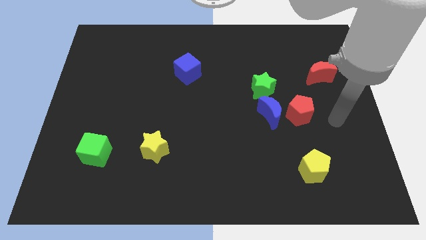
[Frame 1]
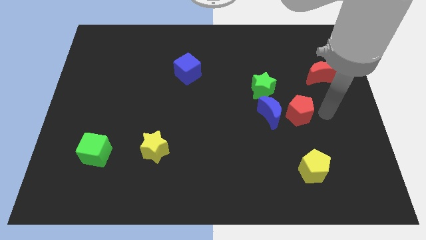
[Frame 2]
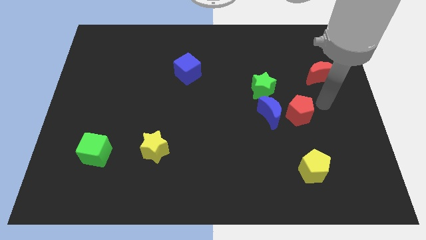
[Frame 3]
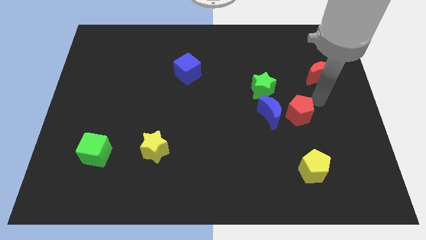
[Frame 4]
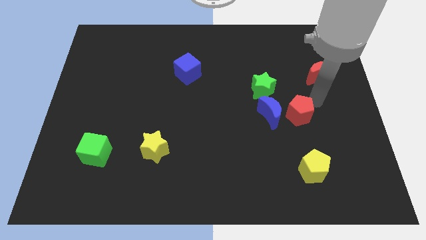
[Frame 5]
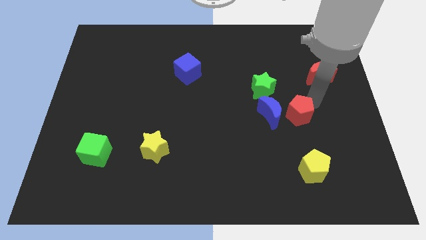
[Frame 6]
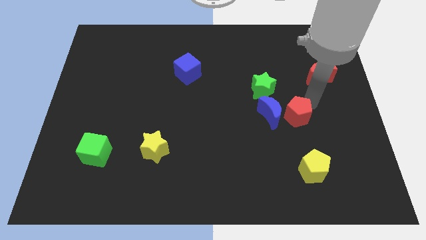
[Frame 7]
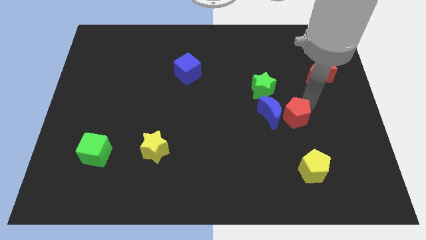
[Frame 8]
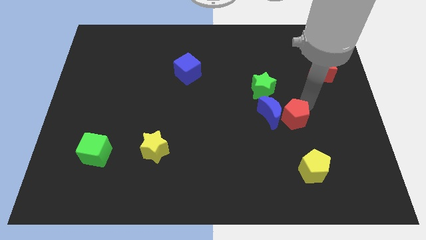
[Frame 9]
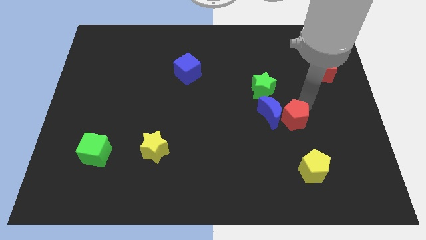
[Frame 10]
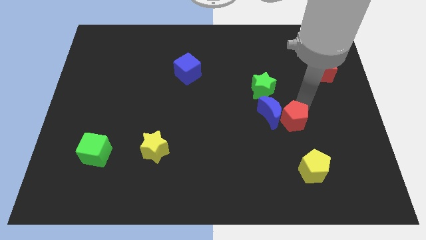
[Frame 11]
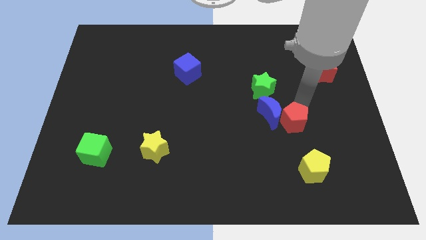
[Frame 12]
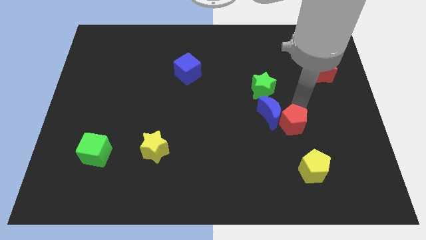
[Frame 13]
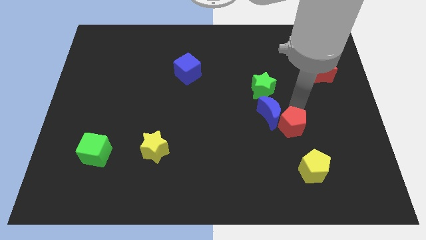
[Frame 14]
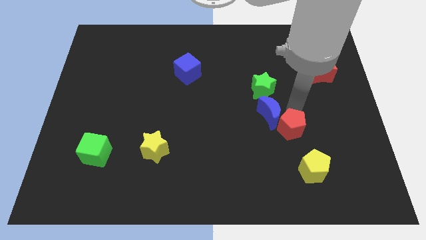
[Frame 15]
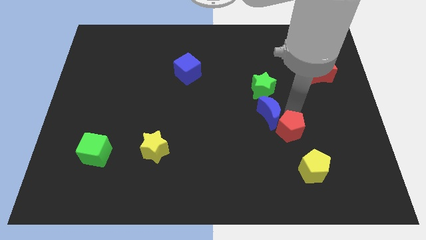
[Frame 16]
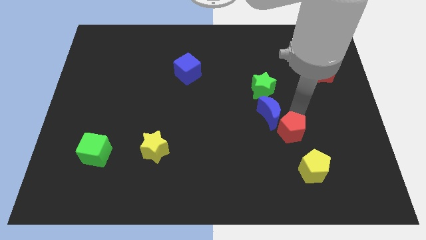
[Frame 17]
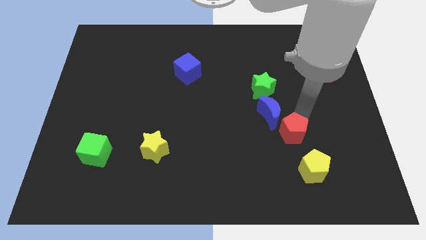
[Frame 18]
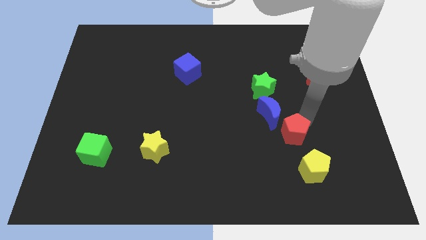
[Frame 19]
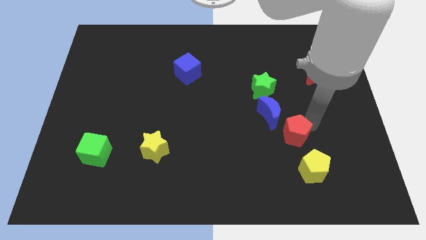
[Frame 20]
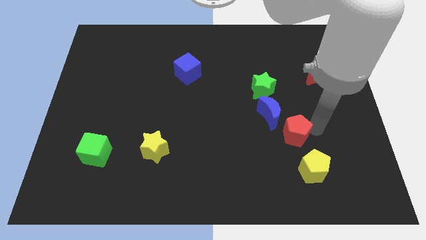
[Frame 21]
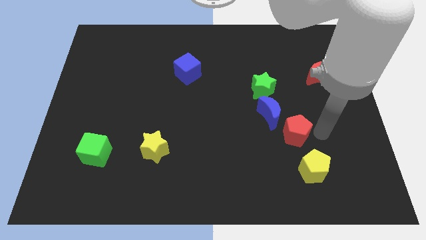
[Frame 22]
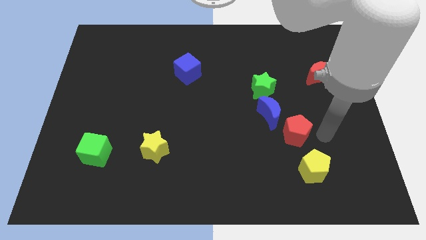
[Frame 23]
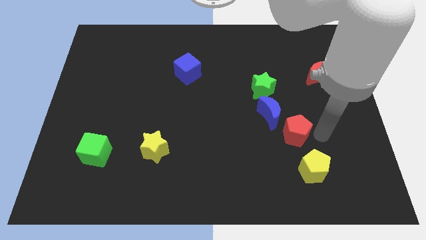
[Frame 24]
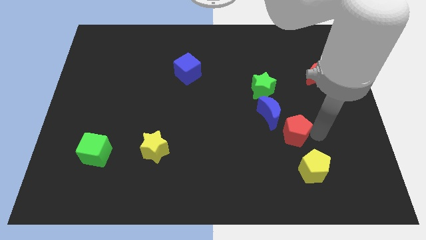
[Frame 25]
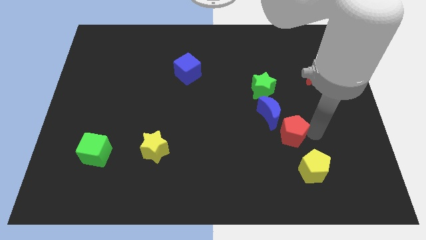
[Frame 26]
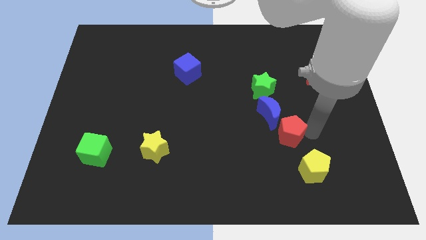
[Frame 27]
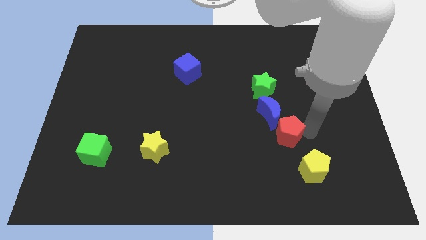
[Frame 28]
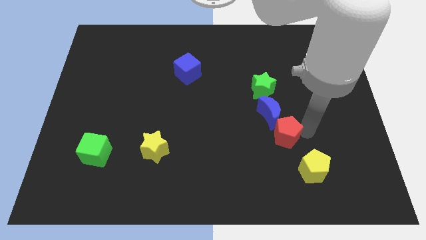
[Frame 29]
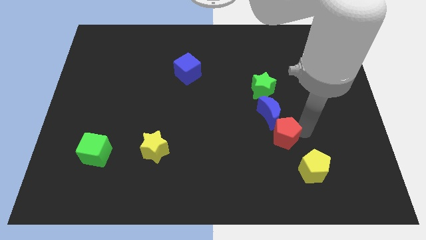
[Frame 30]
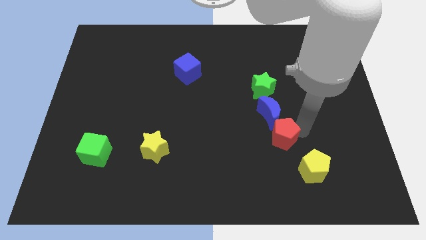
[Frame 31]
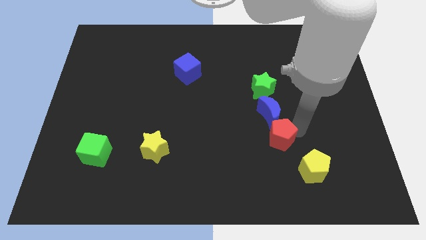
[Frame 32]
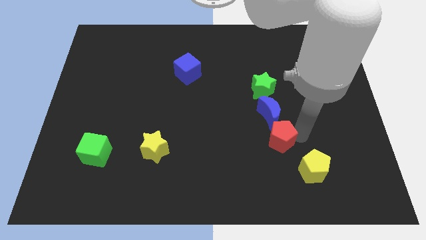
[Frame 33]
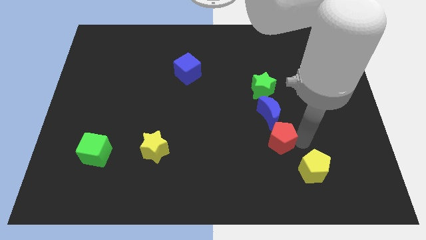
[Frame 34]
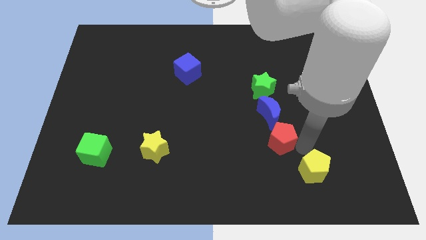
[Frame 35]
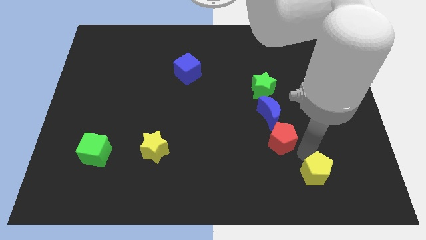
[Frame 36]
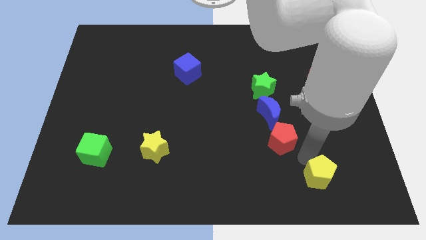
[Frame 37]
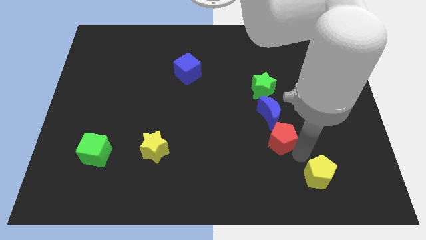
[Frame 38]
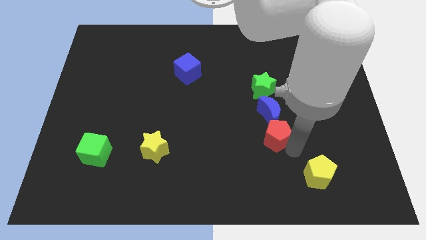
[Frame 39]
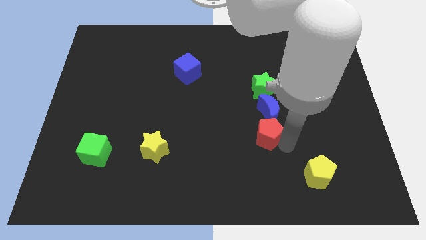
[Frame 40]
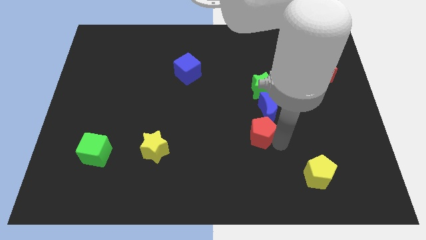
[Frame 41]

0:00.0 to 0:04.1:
push the red pentagon a little bit to the left

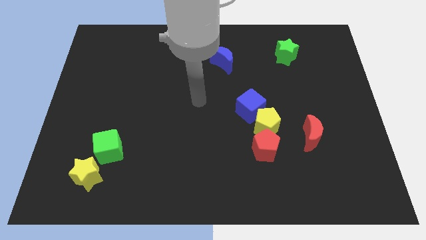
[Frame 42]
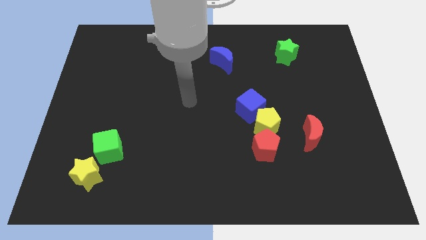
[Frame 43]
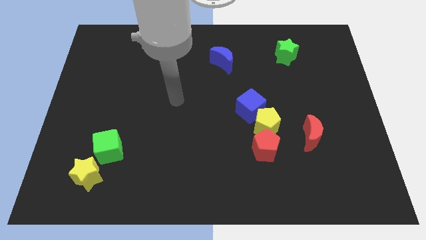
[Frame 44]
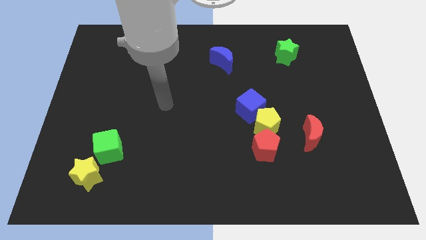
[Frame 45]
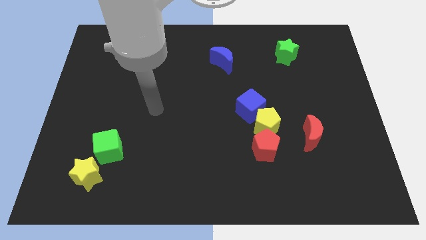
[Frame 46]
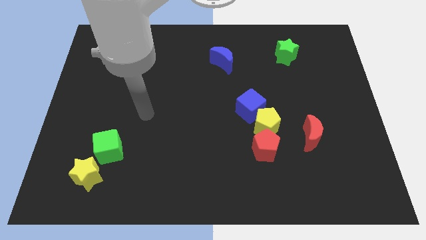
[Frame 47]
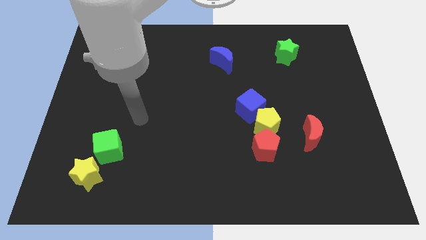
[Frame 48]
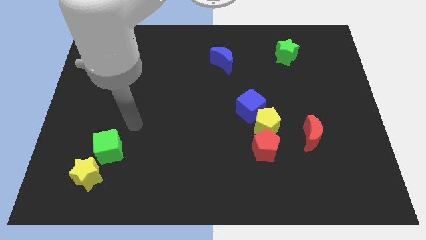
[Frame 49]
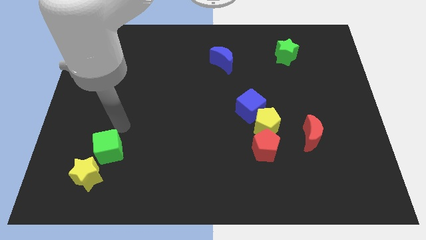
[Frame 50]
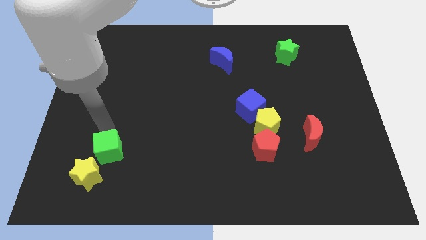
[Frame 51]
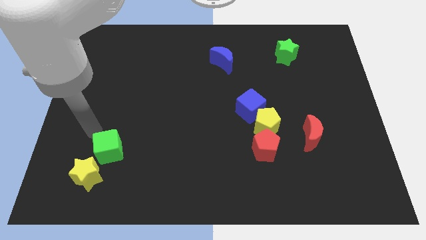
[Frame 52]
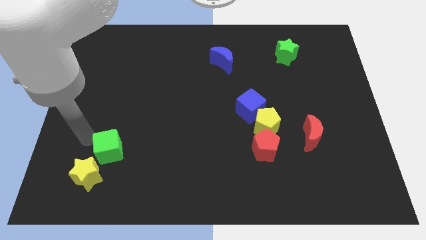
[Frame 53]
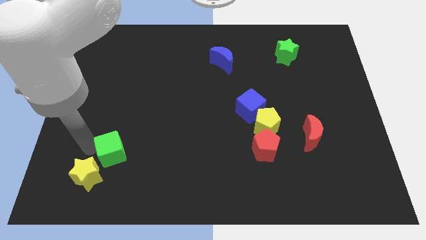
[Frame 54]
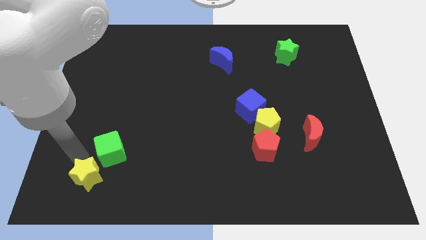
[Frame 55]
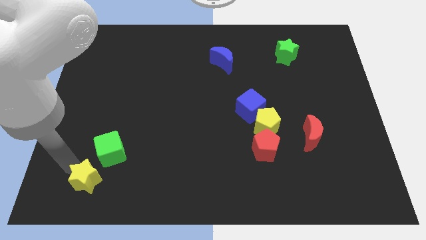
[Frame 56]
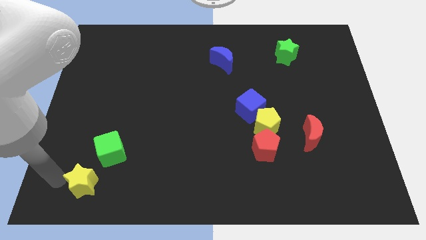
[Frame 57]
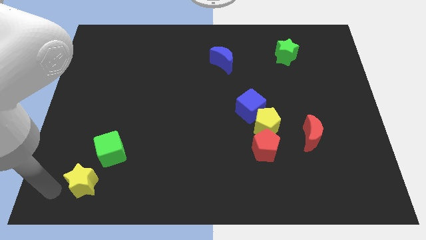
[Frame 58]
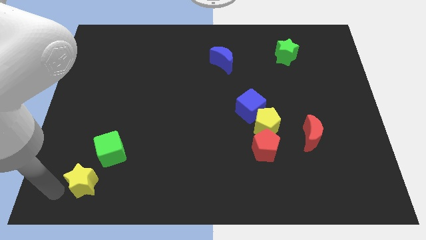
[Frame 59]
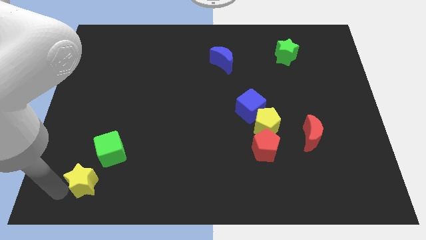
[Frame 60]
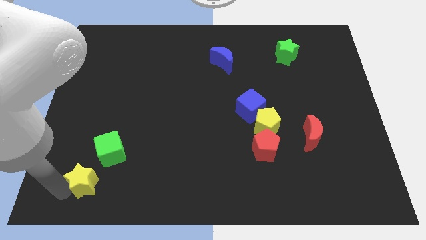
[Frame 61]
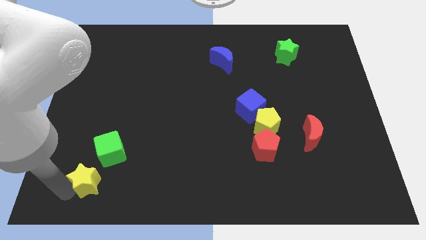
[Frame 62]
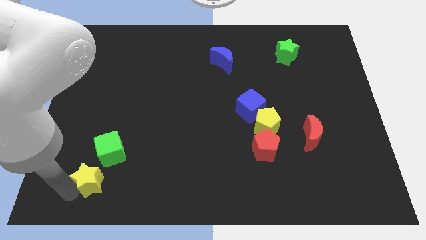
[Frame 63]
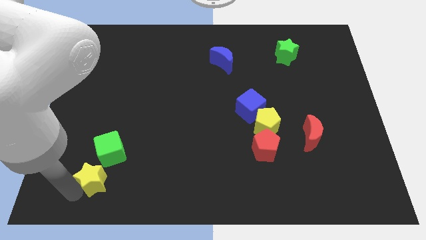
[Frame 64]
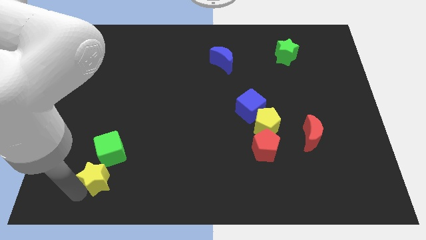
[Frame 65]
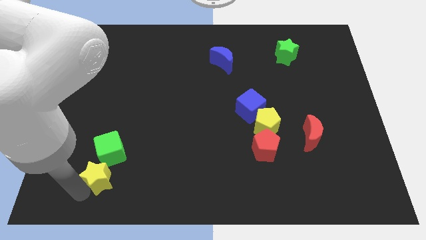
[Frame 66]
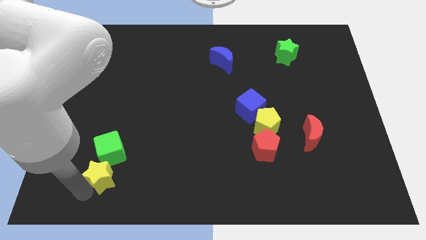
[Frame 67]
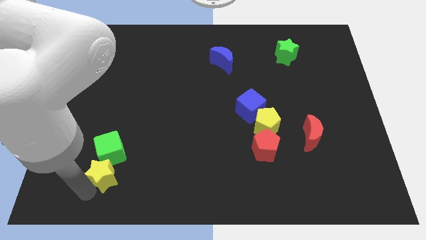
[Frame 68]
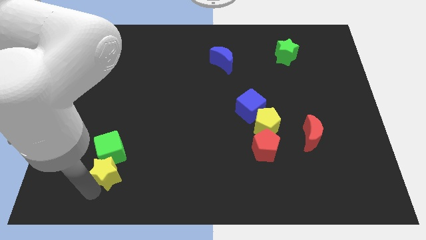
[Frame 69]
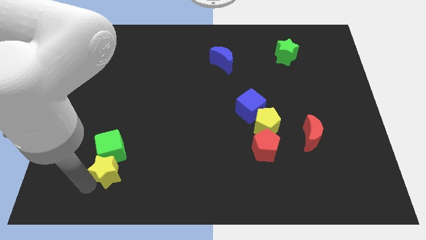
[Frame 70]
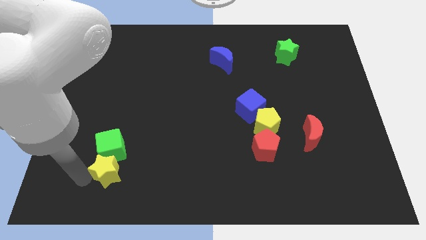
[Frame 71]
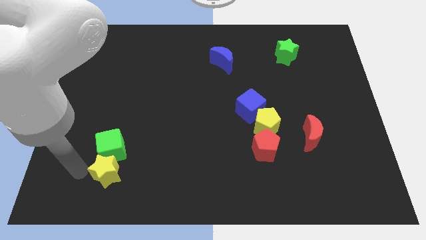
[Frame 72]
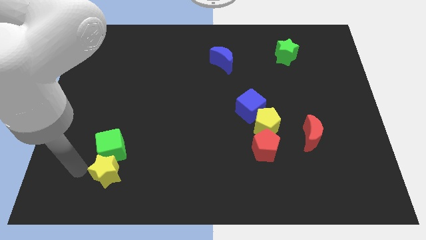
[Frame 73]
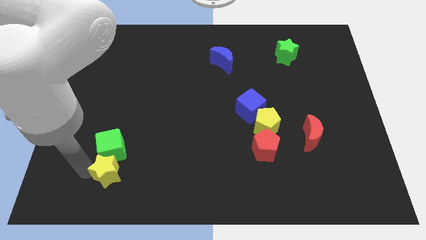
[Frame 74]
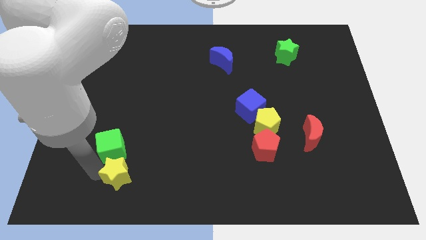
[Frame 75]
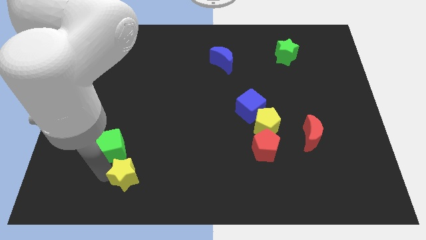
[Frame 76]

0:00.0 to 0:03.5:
slightly push the yellow star right

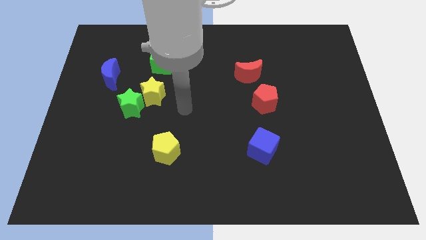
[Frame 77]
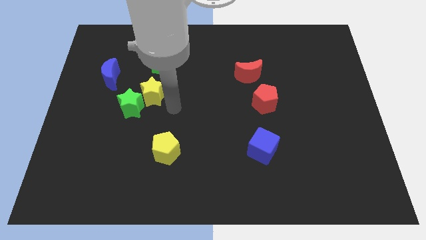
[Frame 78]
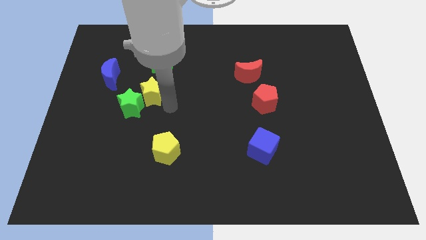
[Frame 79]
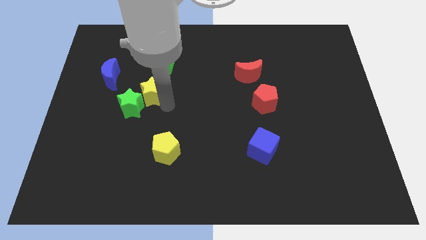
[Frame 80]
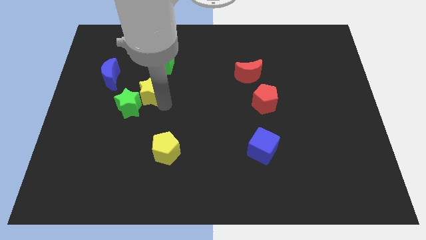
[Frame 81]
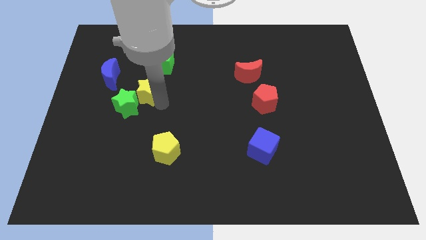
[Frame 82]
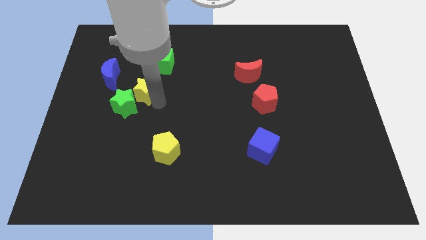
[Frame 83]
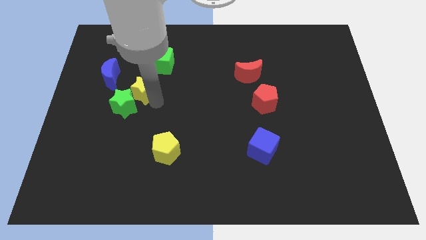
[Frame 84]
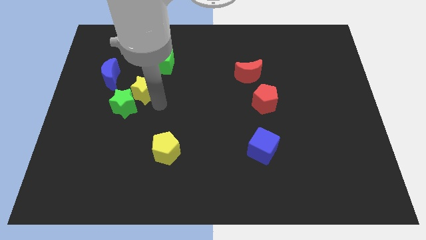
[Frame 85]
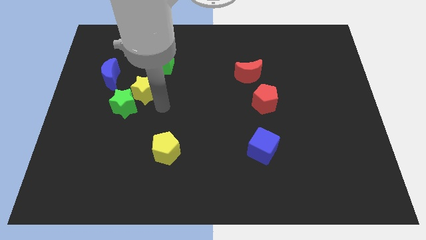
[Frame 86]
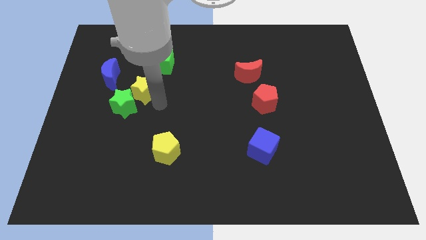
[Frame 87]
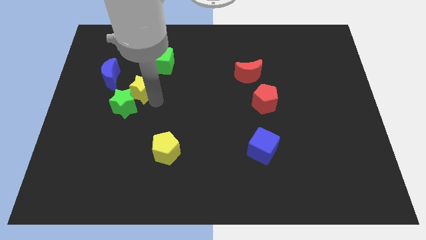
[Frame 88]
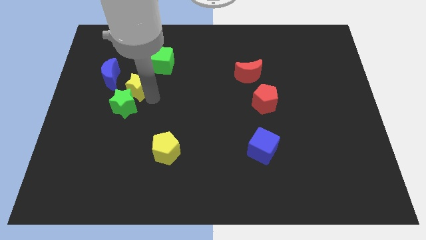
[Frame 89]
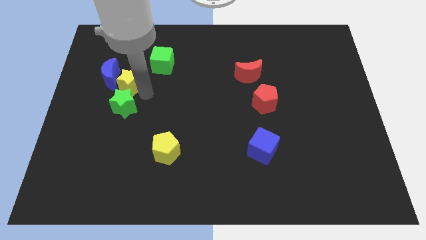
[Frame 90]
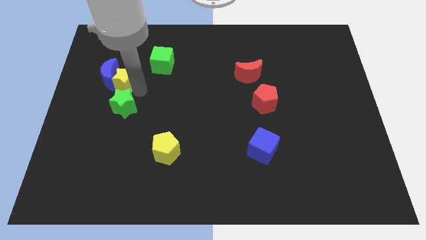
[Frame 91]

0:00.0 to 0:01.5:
slightly slide the yellow star up and left diagonally
